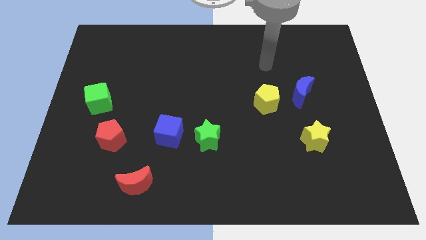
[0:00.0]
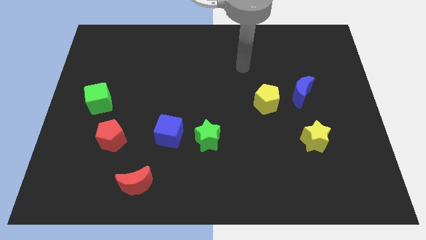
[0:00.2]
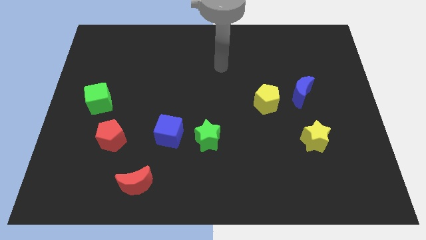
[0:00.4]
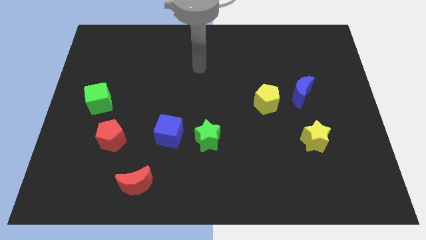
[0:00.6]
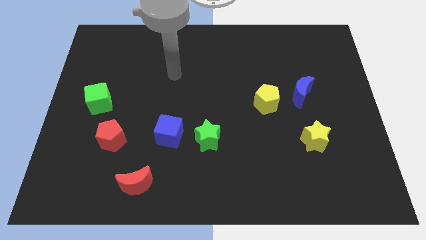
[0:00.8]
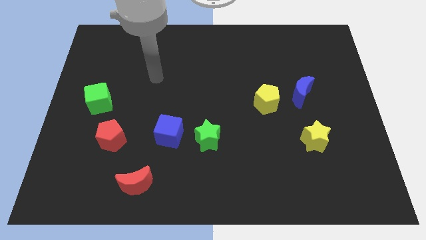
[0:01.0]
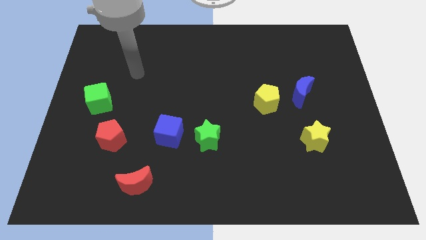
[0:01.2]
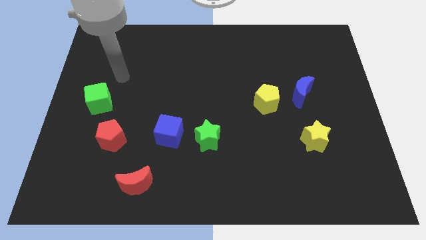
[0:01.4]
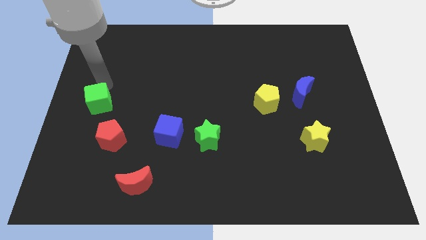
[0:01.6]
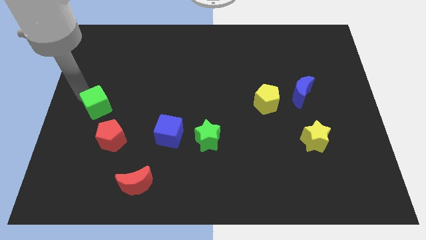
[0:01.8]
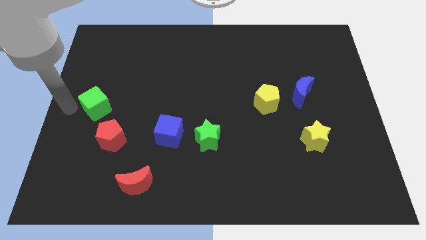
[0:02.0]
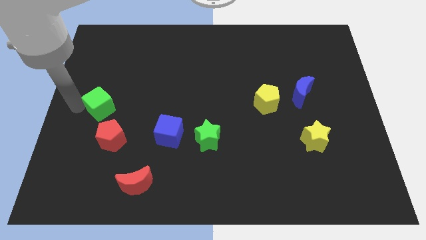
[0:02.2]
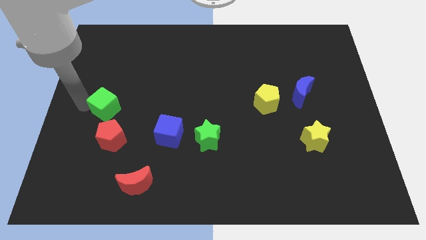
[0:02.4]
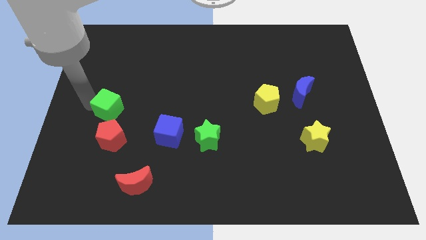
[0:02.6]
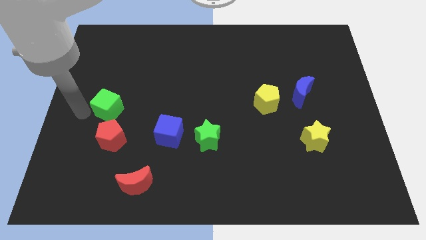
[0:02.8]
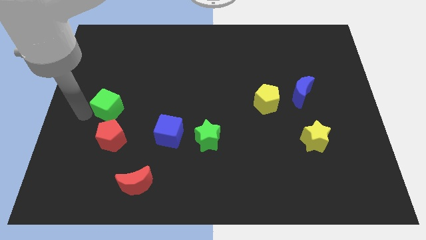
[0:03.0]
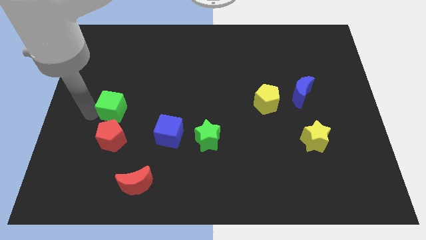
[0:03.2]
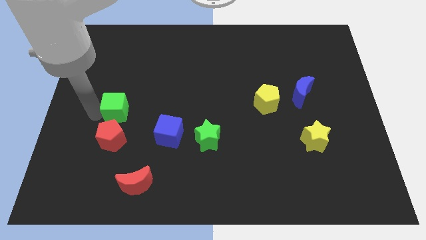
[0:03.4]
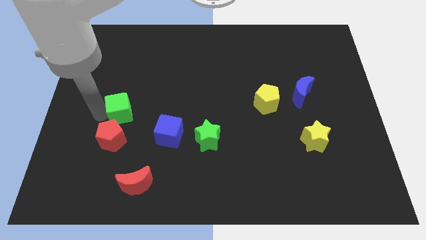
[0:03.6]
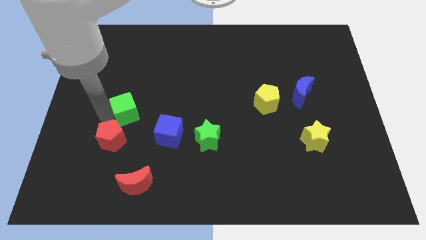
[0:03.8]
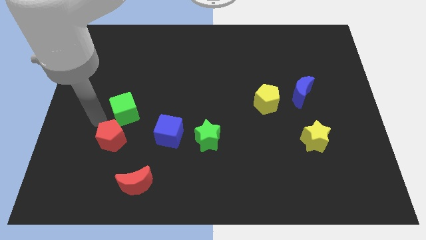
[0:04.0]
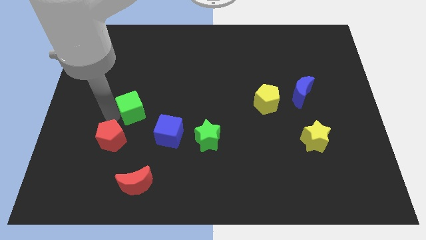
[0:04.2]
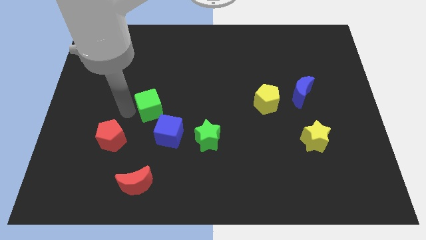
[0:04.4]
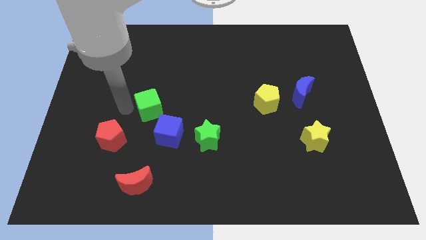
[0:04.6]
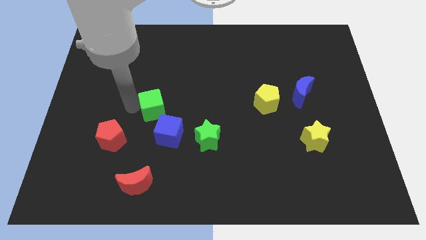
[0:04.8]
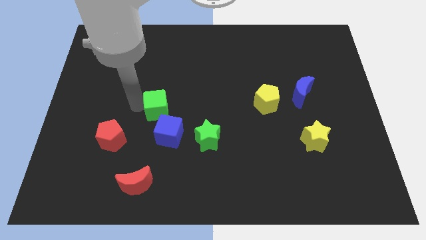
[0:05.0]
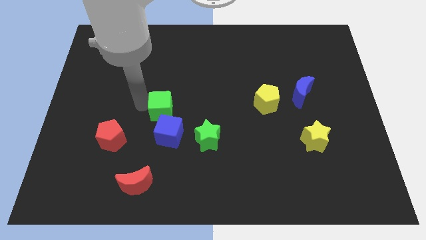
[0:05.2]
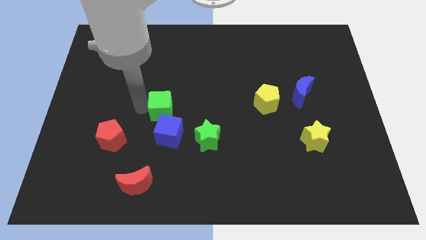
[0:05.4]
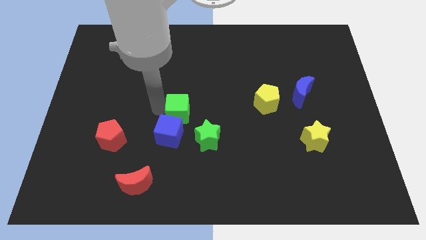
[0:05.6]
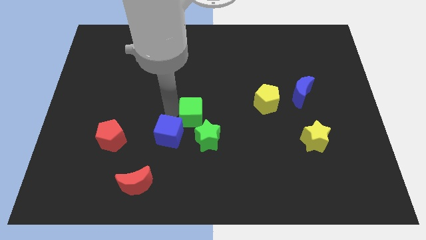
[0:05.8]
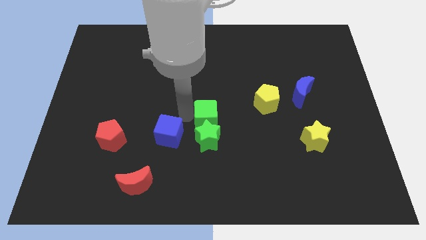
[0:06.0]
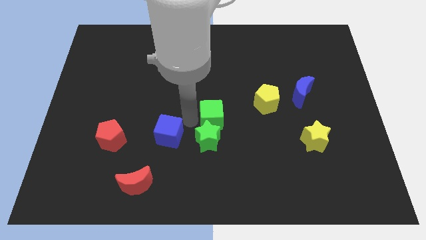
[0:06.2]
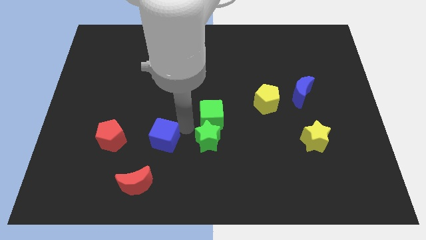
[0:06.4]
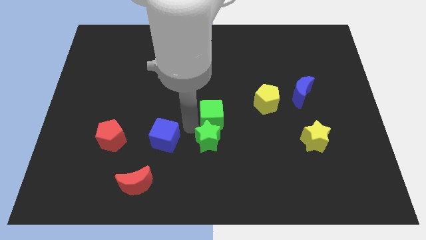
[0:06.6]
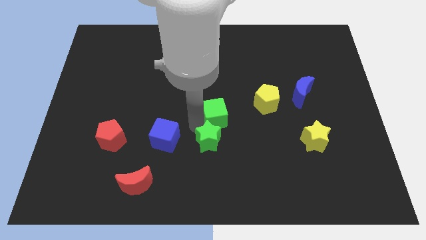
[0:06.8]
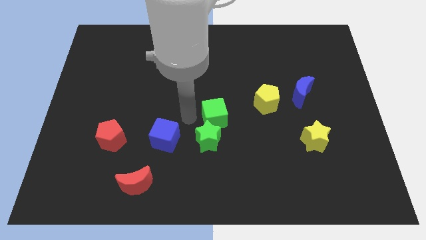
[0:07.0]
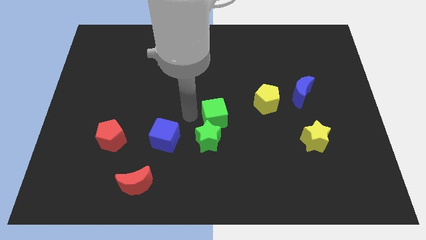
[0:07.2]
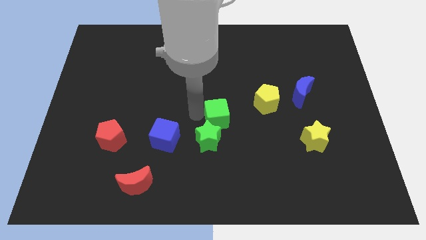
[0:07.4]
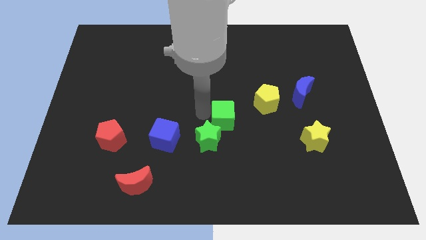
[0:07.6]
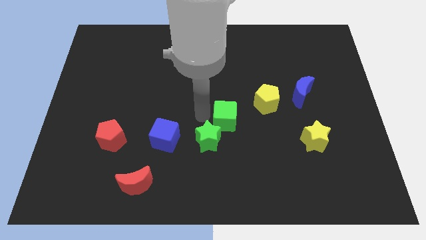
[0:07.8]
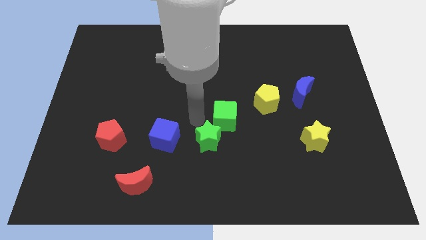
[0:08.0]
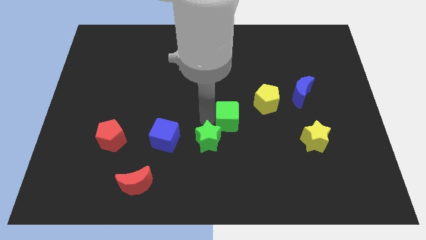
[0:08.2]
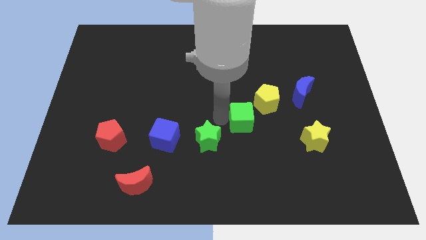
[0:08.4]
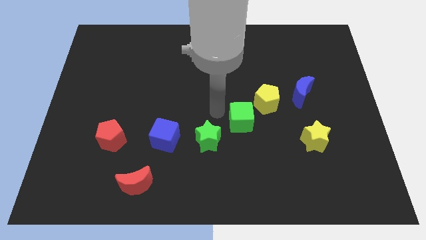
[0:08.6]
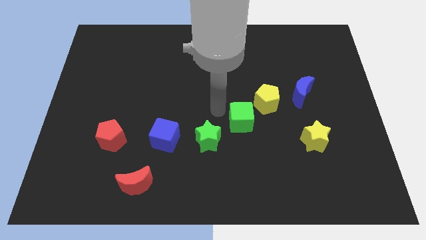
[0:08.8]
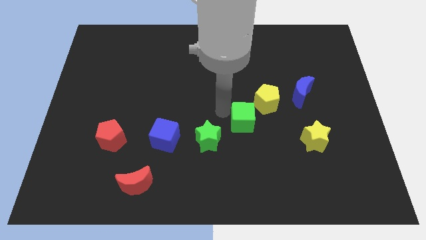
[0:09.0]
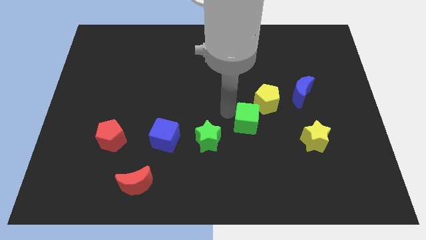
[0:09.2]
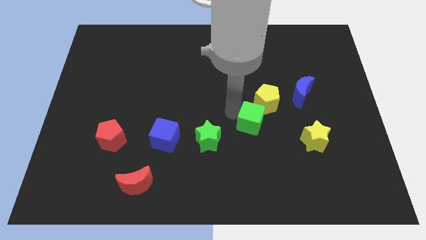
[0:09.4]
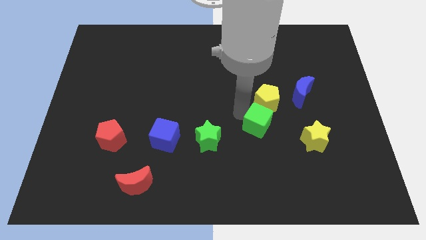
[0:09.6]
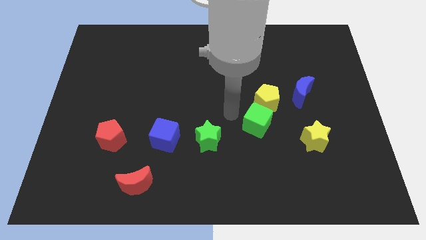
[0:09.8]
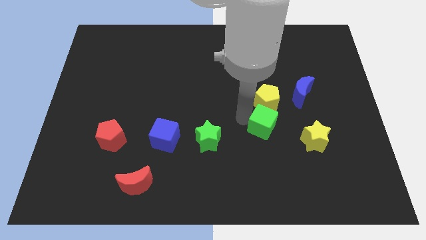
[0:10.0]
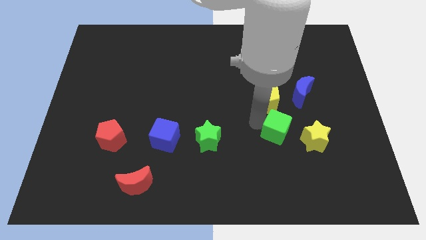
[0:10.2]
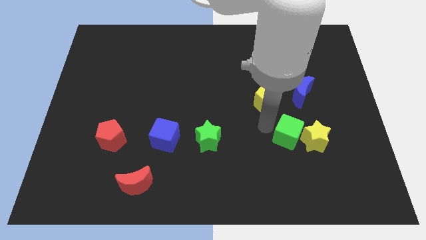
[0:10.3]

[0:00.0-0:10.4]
slide the green cube towards the yellow star

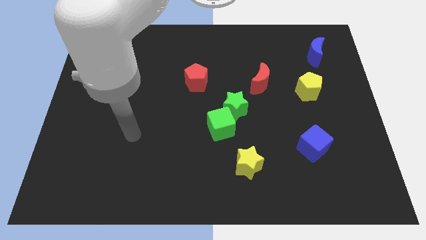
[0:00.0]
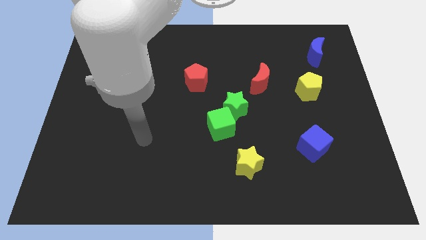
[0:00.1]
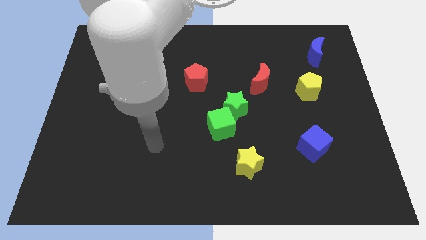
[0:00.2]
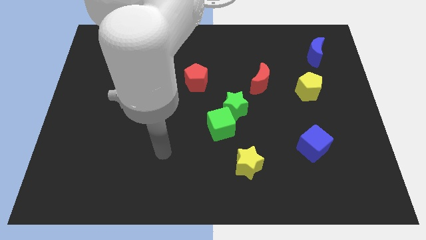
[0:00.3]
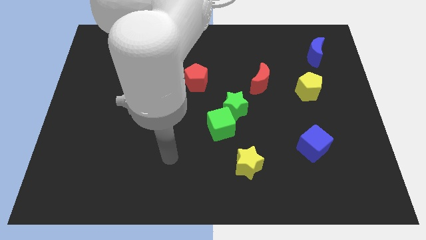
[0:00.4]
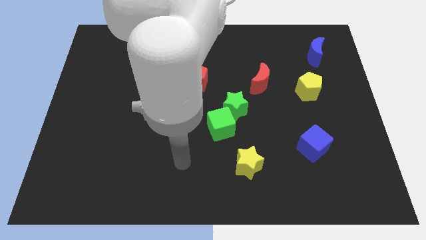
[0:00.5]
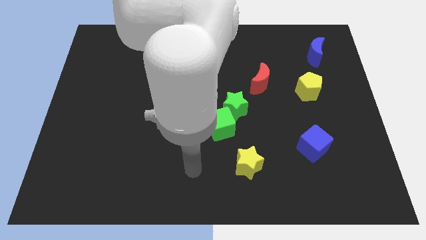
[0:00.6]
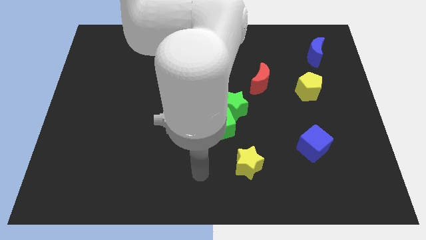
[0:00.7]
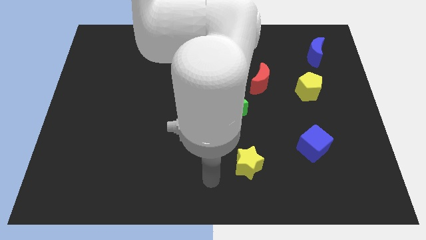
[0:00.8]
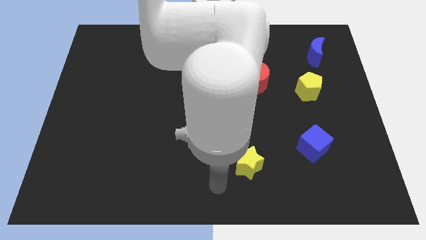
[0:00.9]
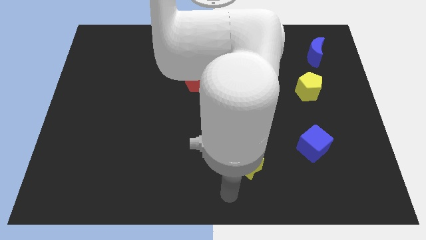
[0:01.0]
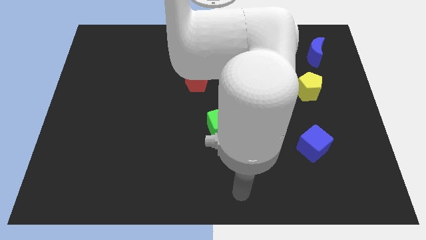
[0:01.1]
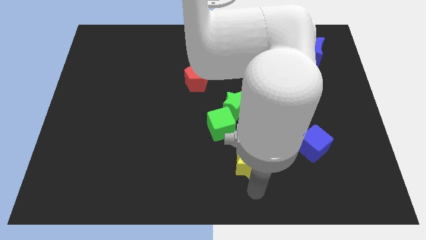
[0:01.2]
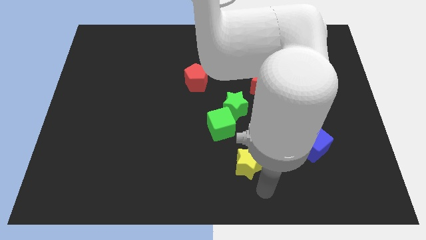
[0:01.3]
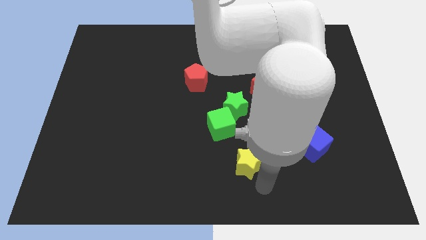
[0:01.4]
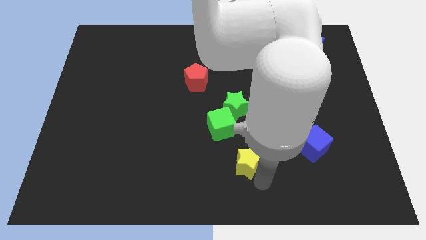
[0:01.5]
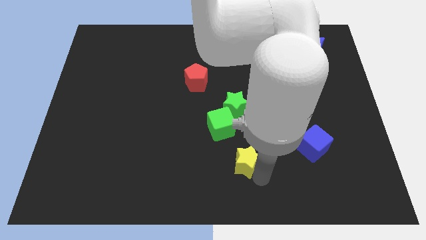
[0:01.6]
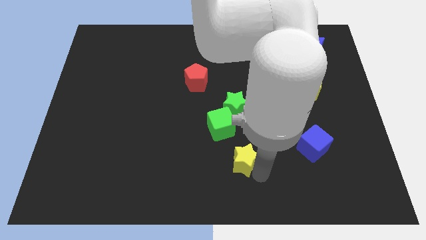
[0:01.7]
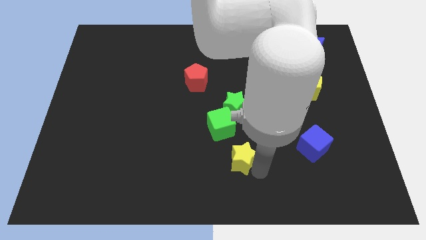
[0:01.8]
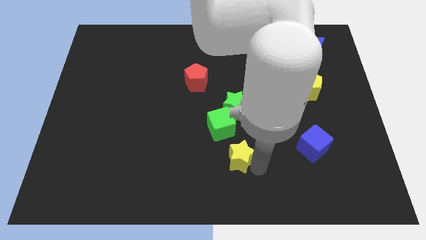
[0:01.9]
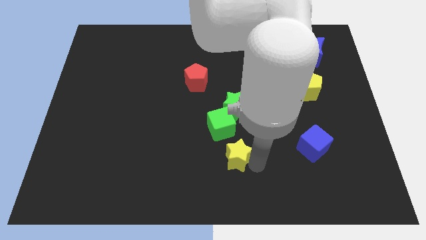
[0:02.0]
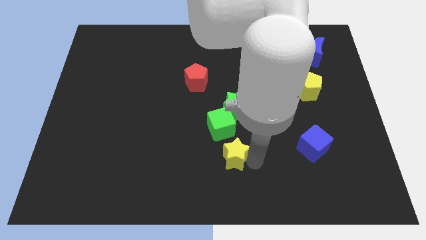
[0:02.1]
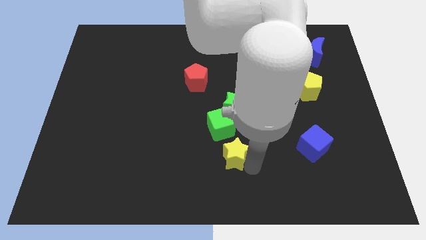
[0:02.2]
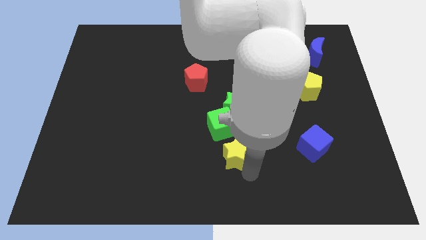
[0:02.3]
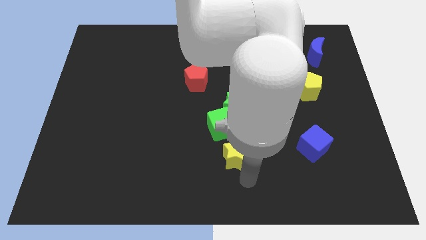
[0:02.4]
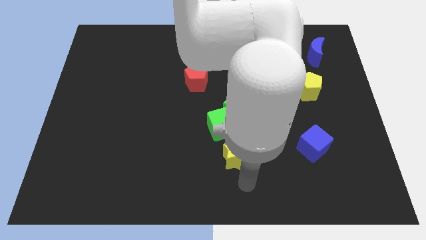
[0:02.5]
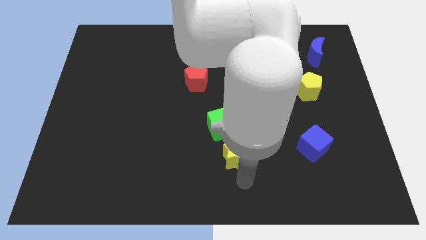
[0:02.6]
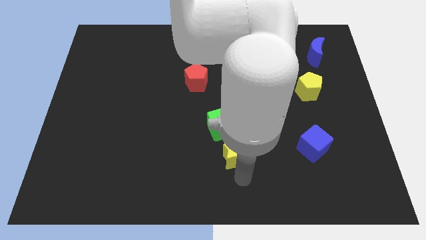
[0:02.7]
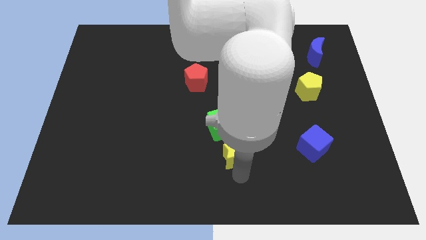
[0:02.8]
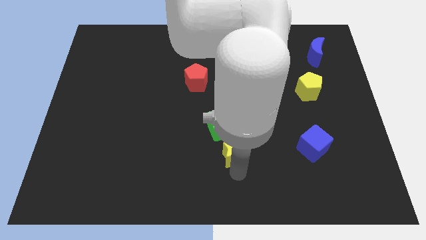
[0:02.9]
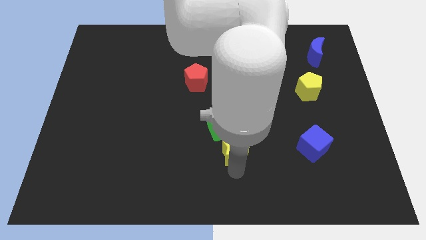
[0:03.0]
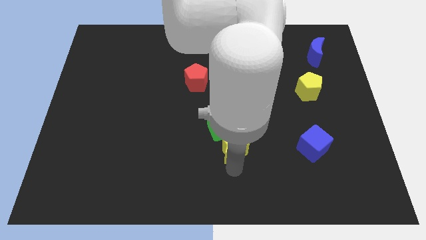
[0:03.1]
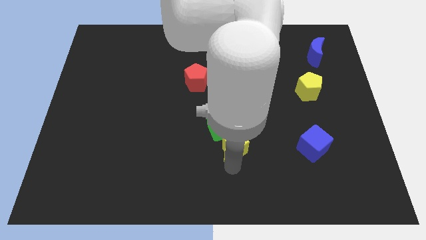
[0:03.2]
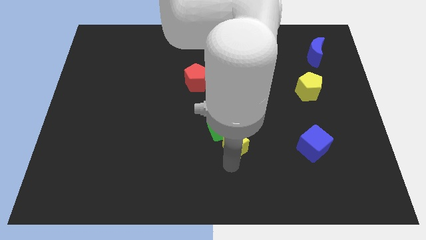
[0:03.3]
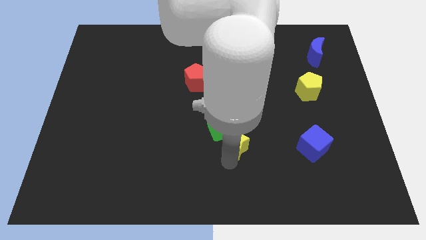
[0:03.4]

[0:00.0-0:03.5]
push the yellow star close to the green cube
